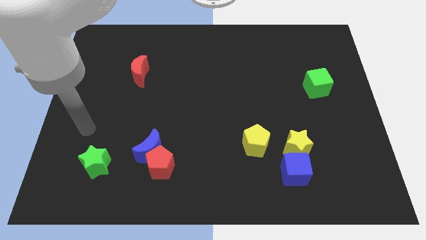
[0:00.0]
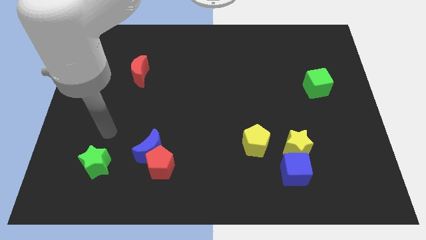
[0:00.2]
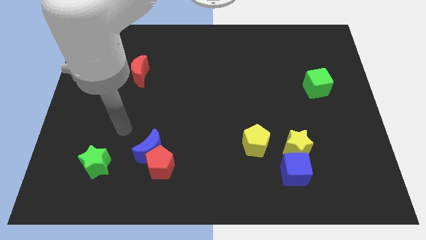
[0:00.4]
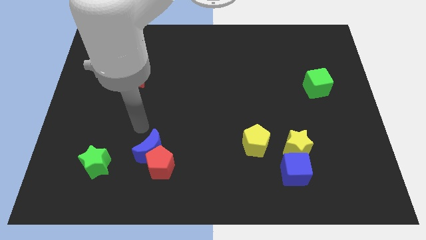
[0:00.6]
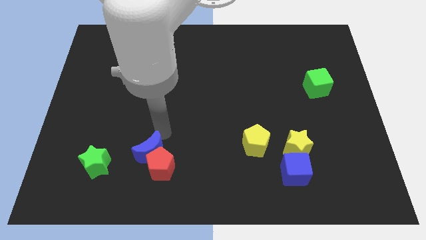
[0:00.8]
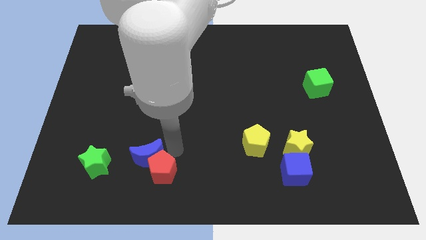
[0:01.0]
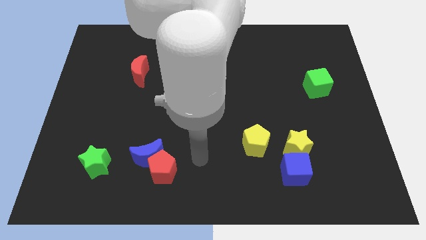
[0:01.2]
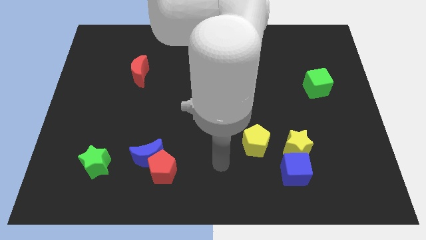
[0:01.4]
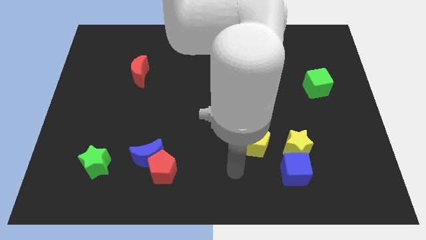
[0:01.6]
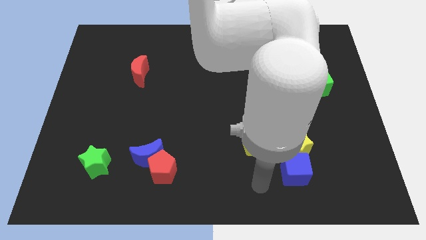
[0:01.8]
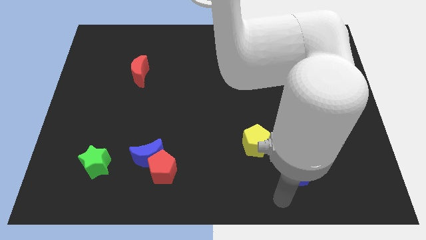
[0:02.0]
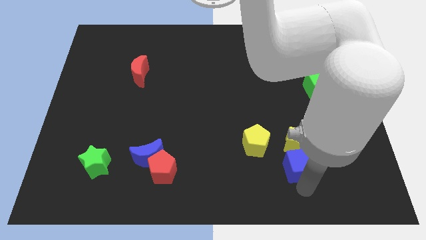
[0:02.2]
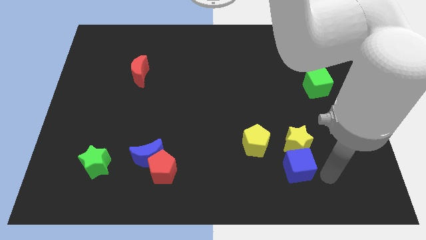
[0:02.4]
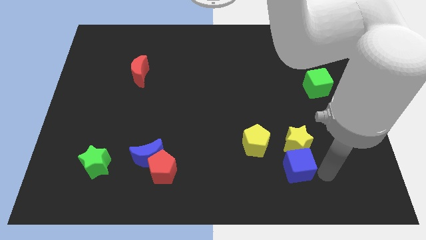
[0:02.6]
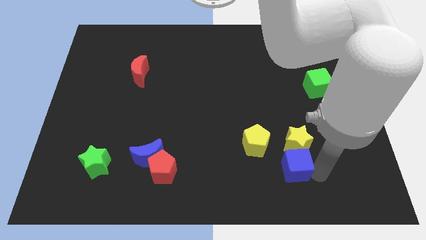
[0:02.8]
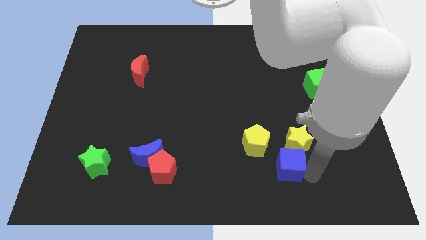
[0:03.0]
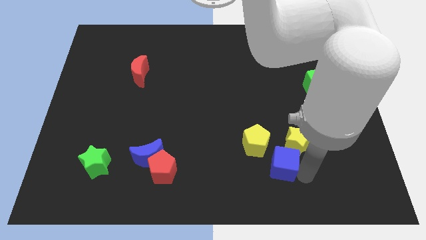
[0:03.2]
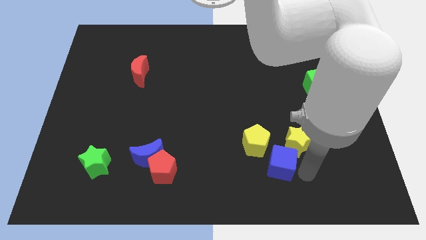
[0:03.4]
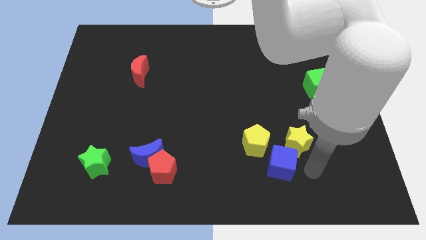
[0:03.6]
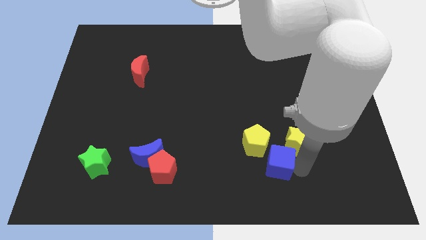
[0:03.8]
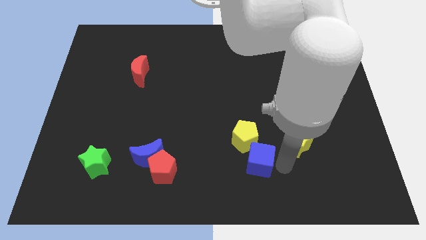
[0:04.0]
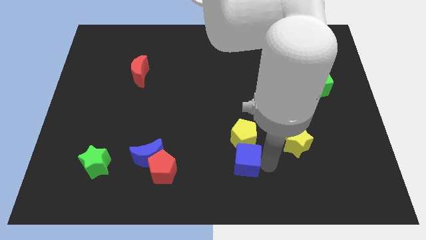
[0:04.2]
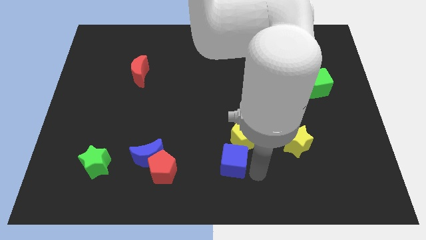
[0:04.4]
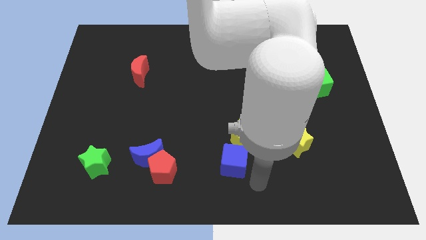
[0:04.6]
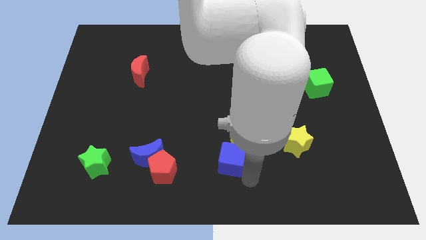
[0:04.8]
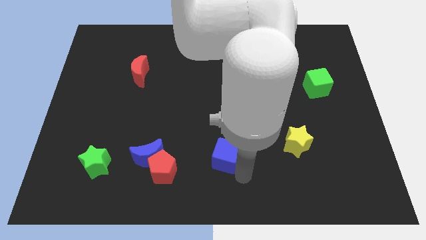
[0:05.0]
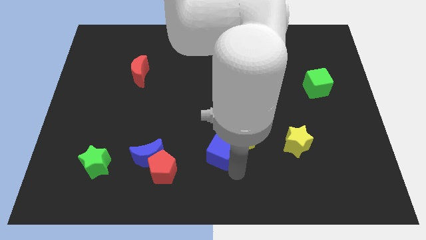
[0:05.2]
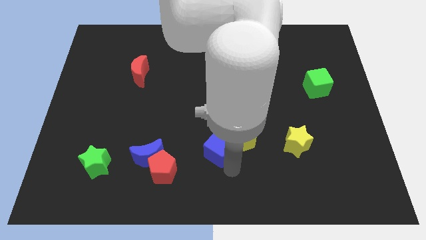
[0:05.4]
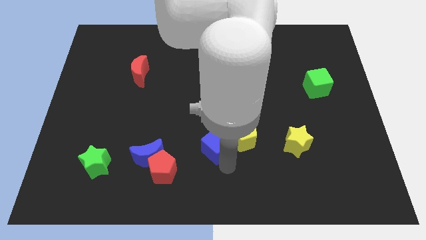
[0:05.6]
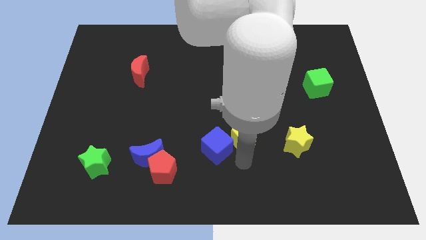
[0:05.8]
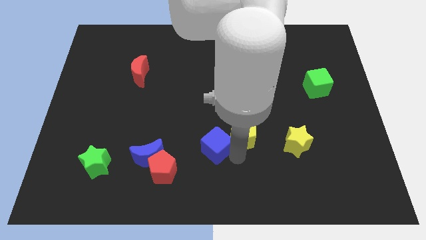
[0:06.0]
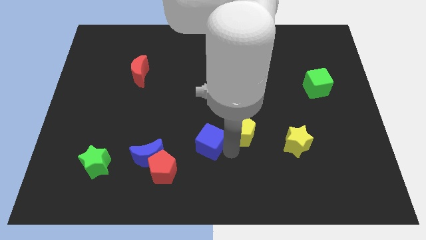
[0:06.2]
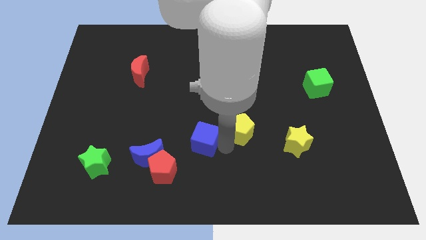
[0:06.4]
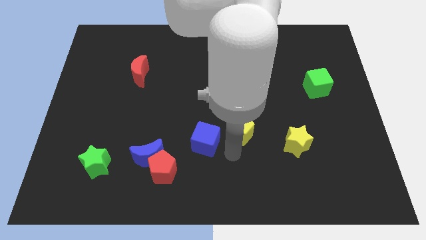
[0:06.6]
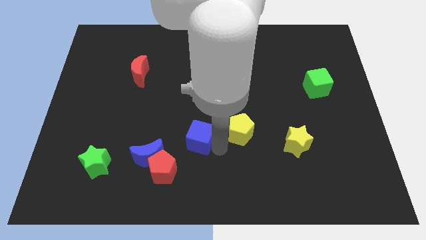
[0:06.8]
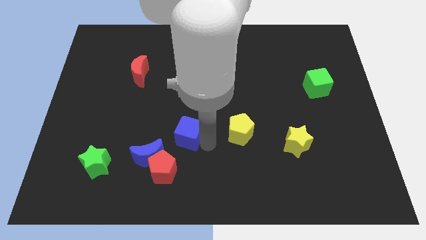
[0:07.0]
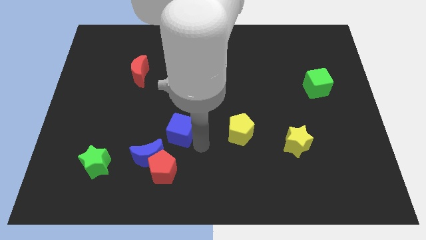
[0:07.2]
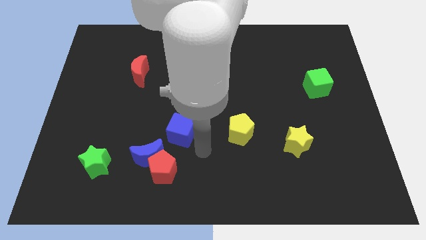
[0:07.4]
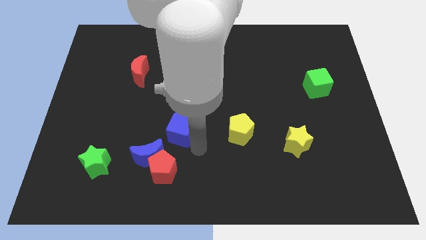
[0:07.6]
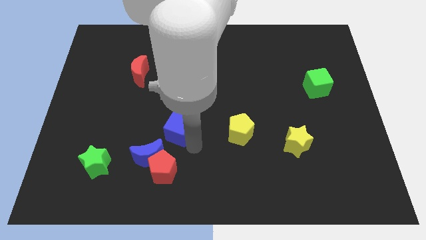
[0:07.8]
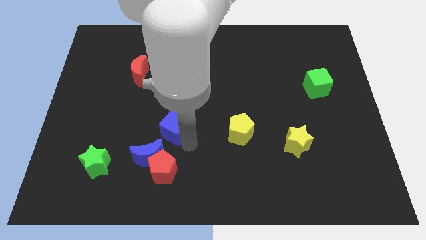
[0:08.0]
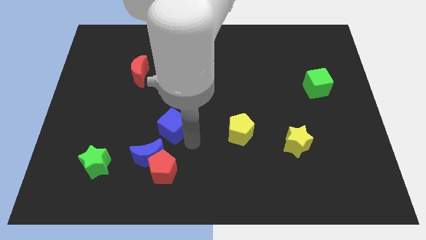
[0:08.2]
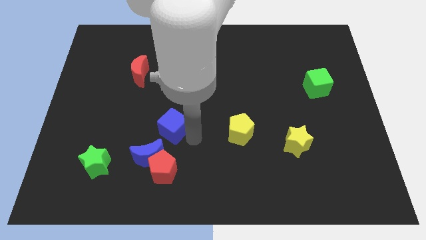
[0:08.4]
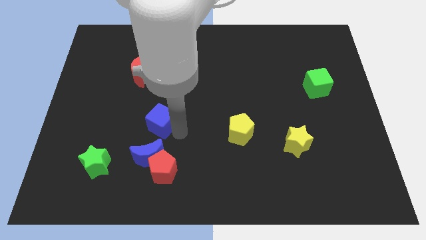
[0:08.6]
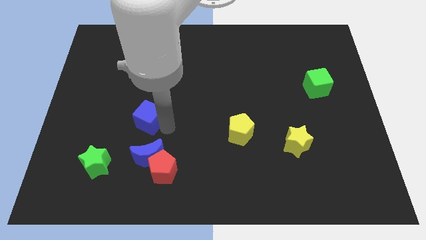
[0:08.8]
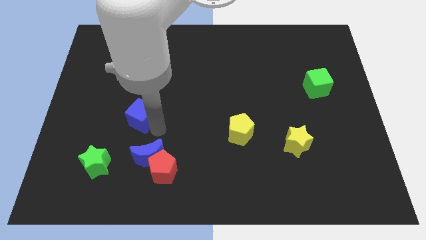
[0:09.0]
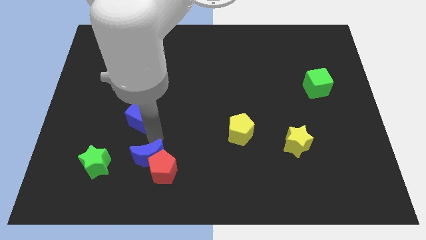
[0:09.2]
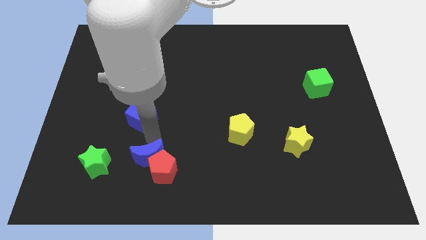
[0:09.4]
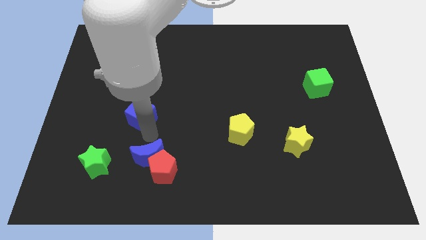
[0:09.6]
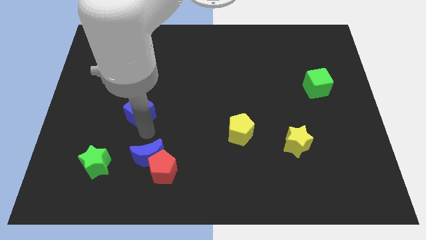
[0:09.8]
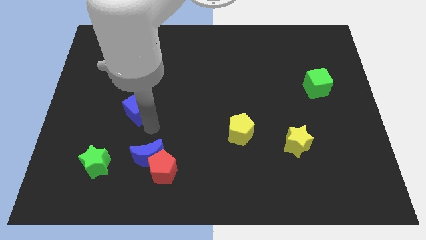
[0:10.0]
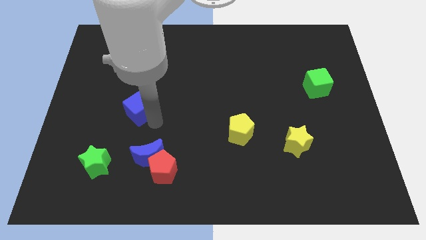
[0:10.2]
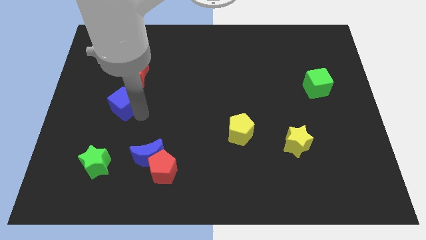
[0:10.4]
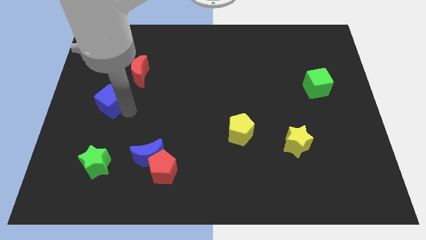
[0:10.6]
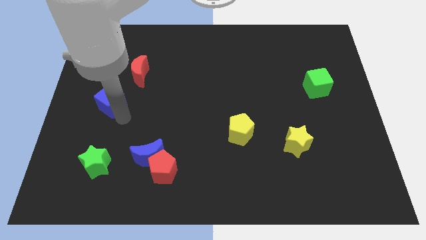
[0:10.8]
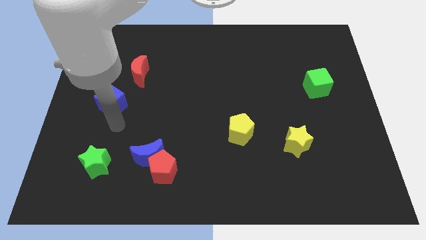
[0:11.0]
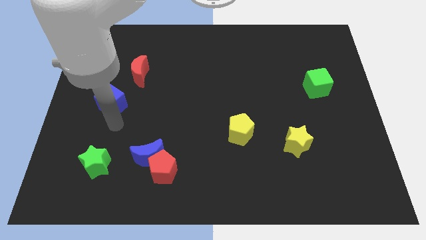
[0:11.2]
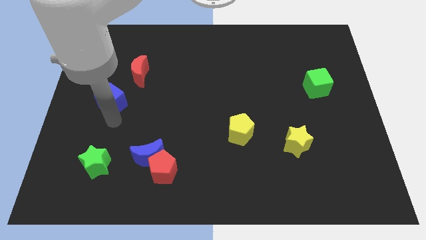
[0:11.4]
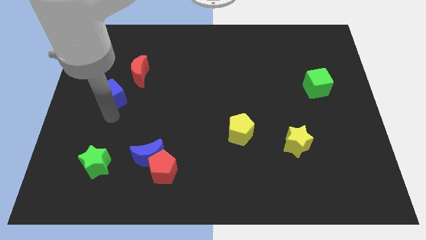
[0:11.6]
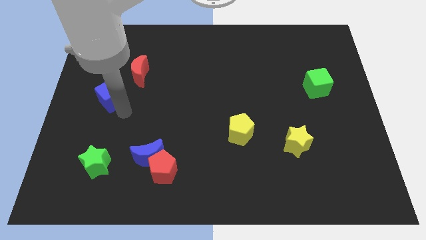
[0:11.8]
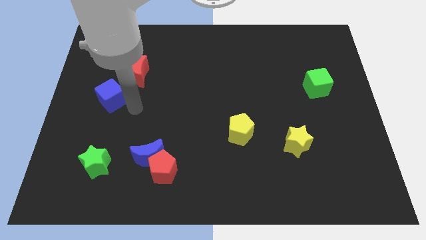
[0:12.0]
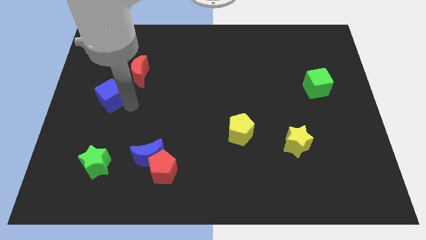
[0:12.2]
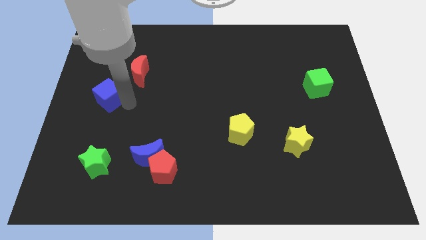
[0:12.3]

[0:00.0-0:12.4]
move the blue cube to the left side
